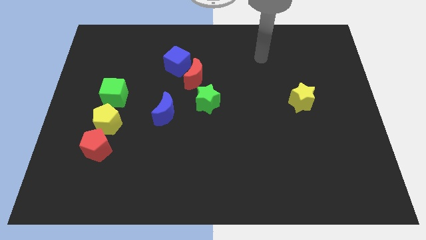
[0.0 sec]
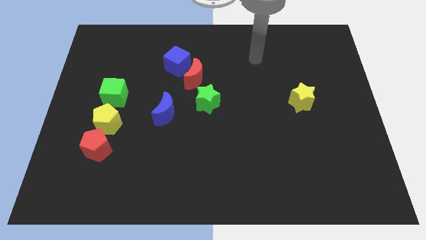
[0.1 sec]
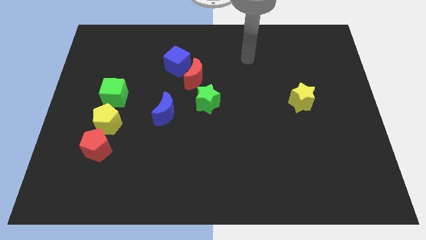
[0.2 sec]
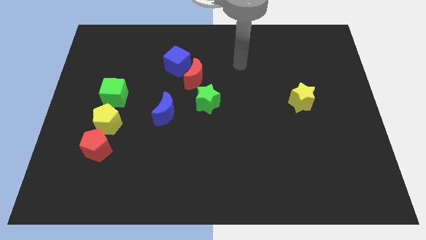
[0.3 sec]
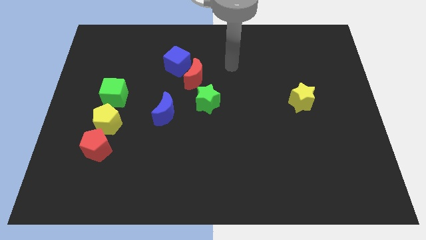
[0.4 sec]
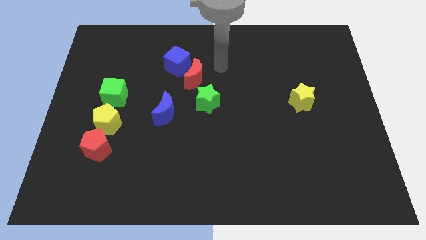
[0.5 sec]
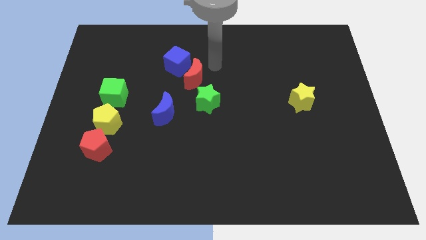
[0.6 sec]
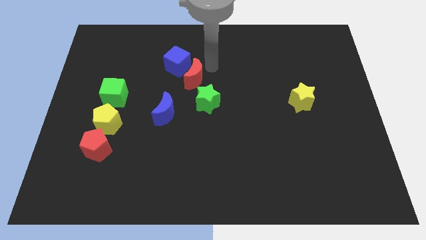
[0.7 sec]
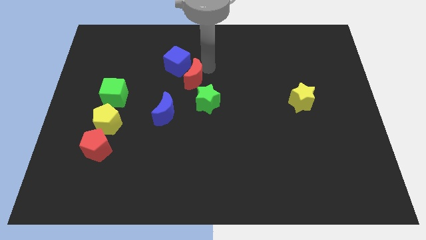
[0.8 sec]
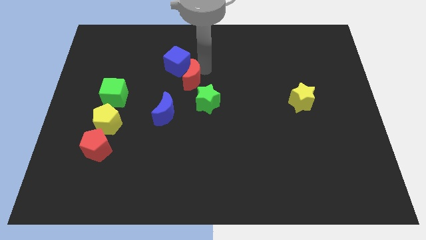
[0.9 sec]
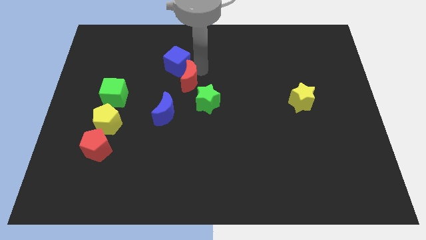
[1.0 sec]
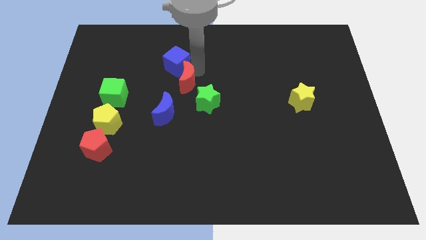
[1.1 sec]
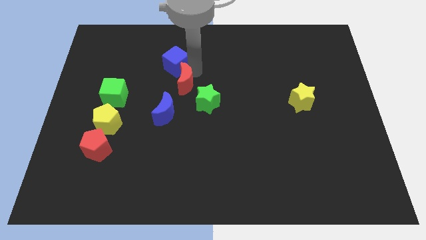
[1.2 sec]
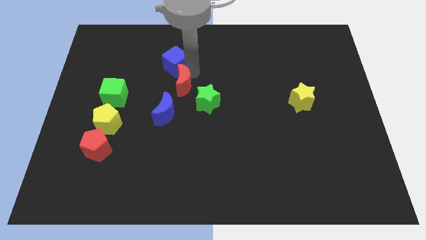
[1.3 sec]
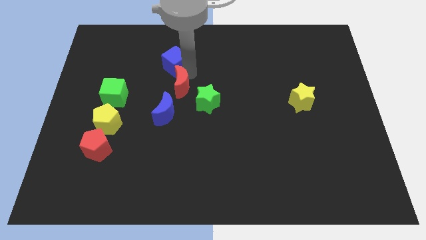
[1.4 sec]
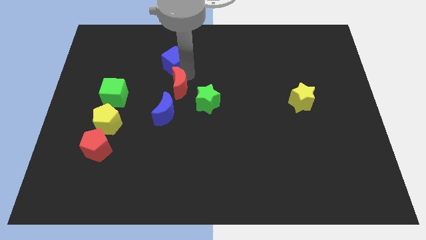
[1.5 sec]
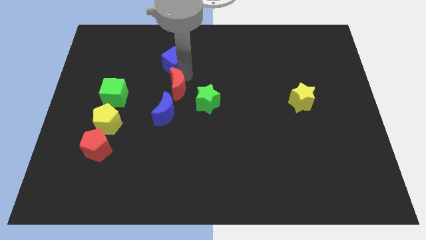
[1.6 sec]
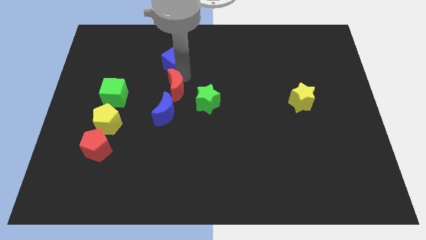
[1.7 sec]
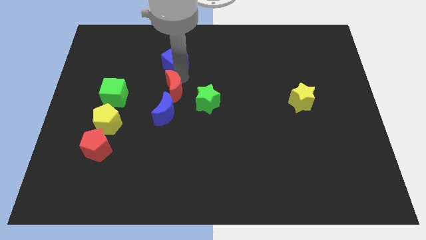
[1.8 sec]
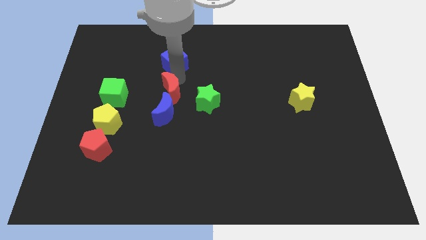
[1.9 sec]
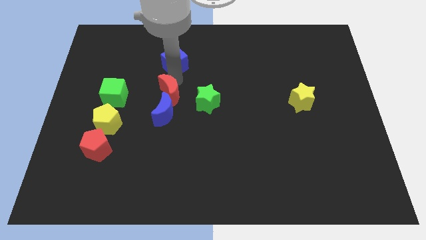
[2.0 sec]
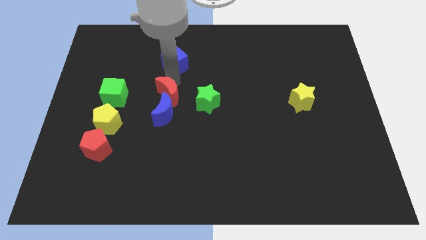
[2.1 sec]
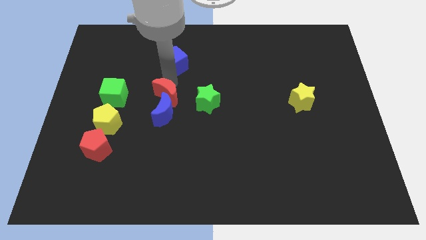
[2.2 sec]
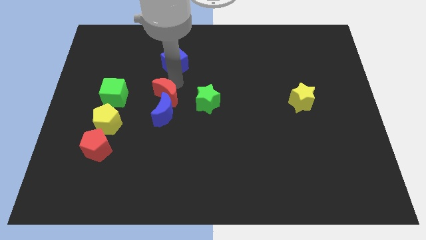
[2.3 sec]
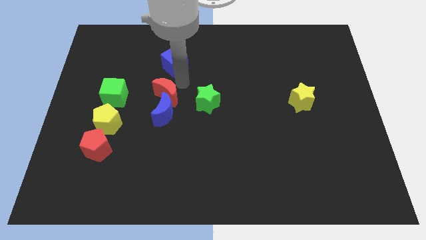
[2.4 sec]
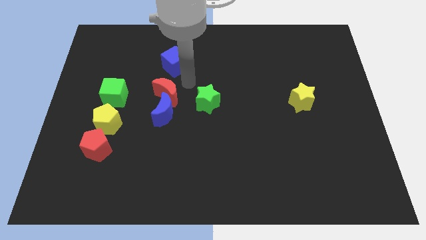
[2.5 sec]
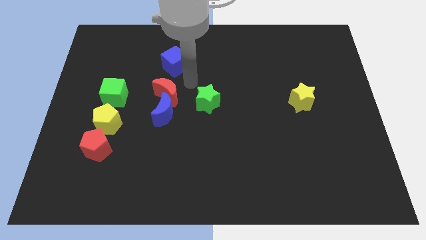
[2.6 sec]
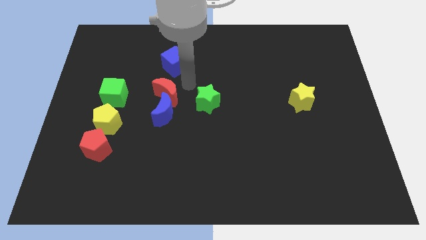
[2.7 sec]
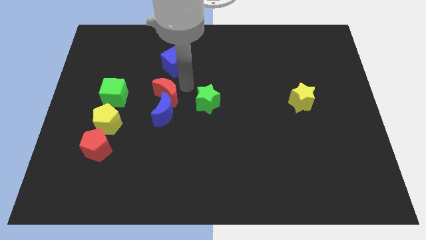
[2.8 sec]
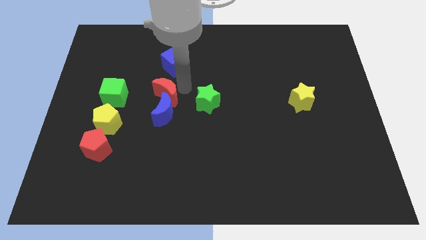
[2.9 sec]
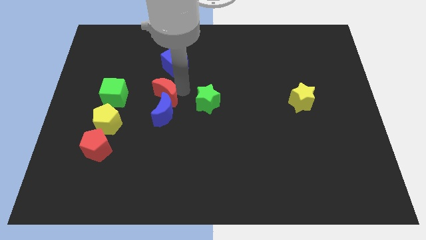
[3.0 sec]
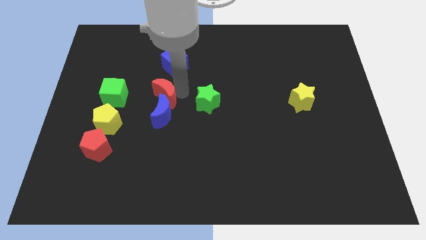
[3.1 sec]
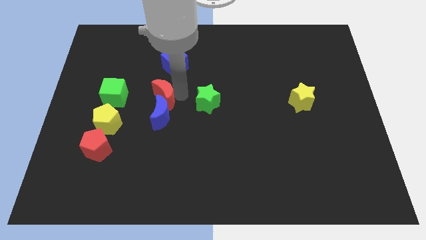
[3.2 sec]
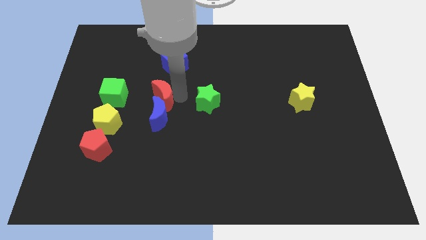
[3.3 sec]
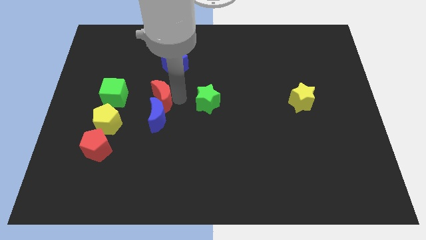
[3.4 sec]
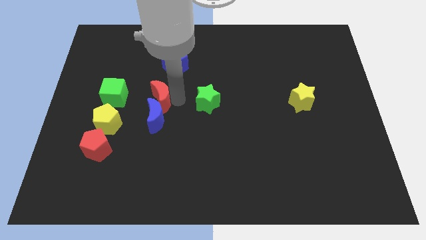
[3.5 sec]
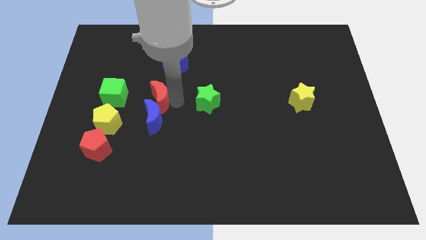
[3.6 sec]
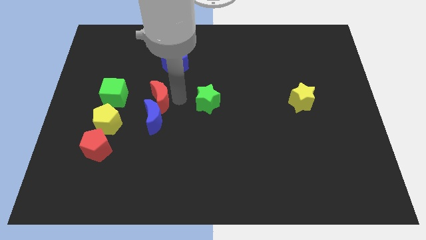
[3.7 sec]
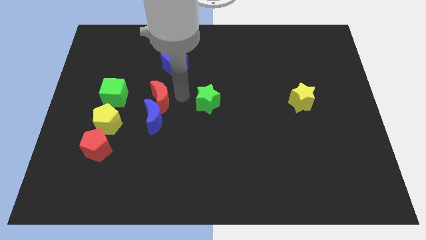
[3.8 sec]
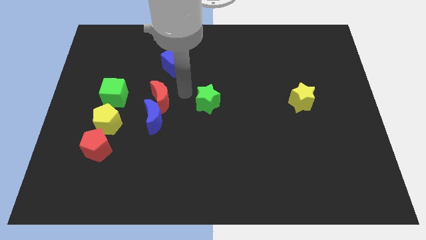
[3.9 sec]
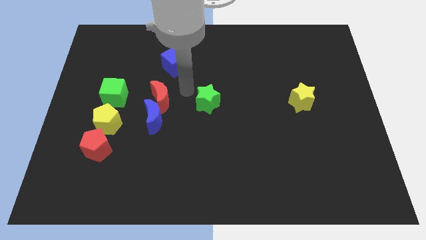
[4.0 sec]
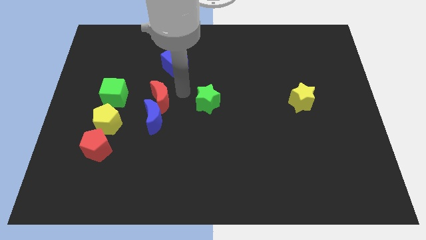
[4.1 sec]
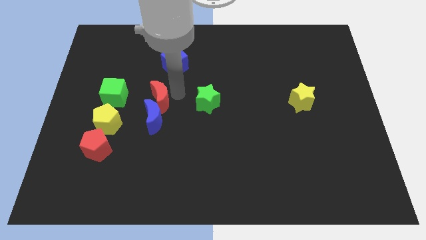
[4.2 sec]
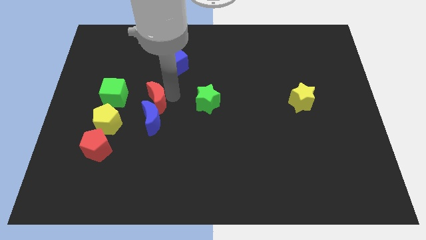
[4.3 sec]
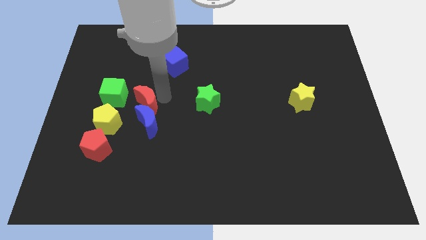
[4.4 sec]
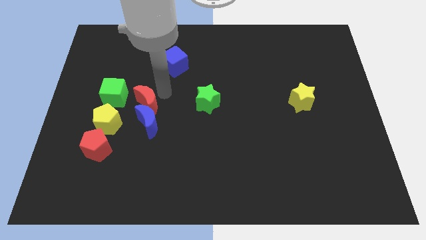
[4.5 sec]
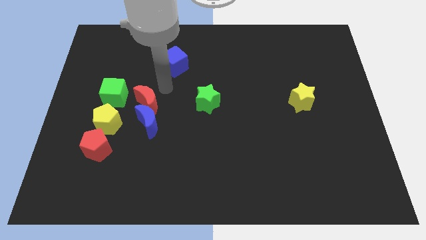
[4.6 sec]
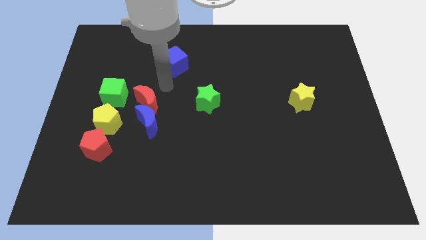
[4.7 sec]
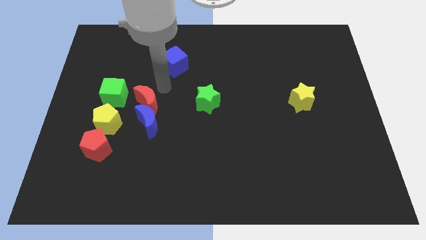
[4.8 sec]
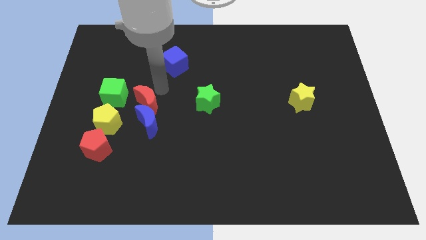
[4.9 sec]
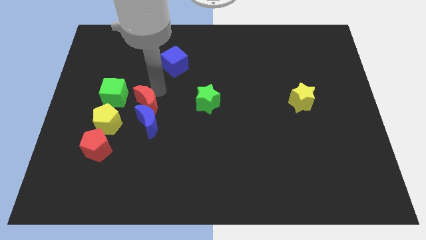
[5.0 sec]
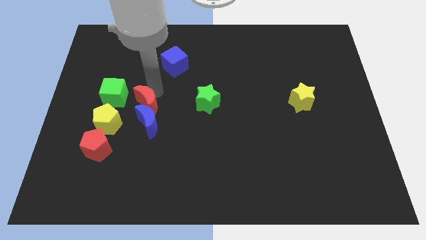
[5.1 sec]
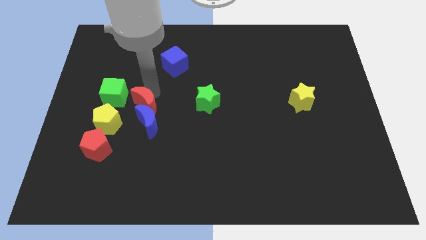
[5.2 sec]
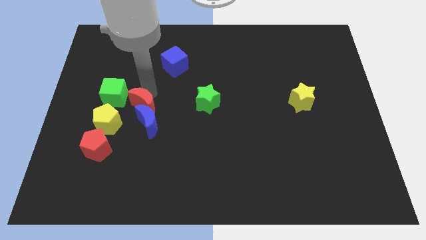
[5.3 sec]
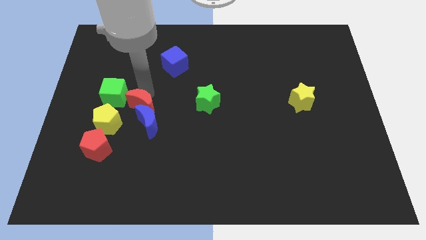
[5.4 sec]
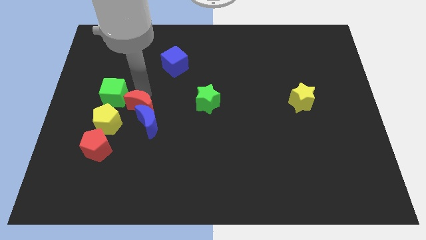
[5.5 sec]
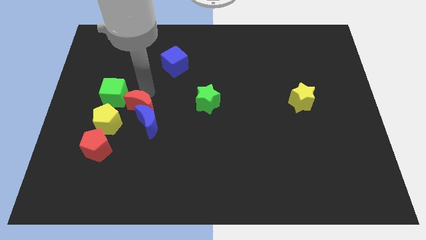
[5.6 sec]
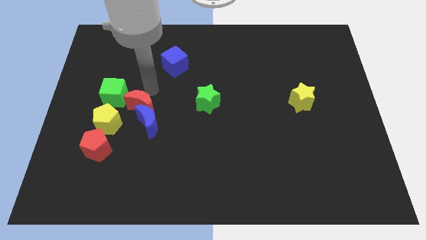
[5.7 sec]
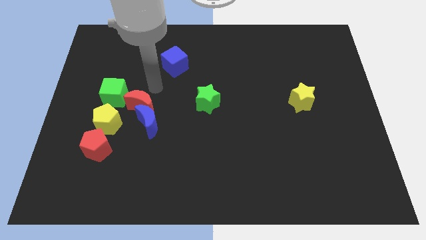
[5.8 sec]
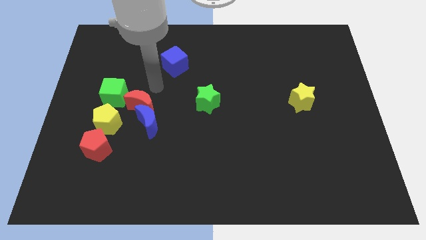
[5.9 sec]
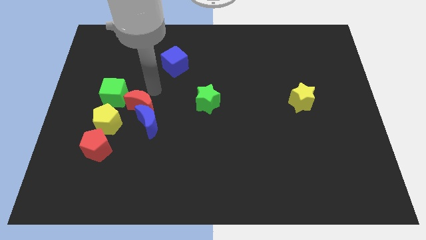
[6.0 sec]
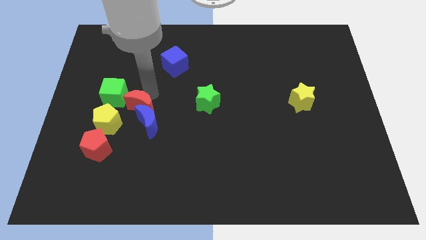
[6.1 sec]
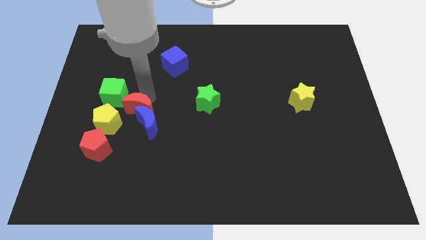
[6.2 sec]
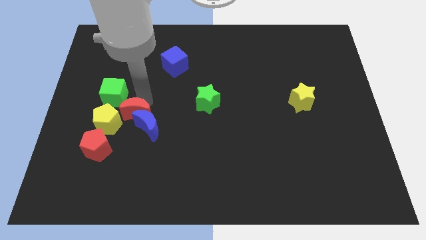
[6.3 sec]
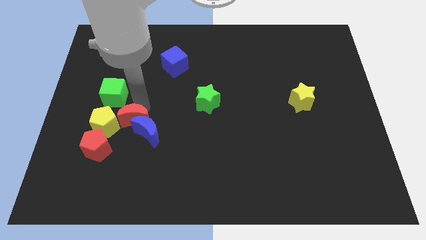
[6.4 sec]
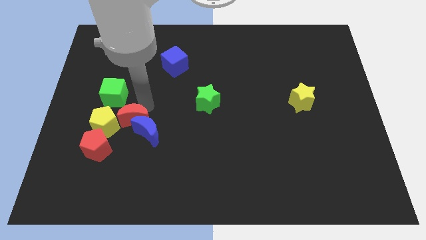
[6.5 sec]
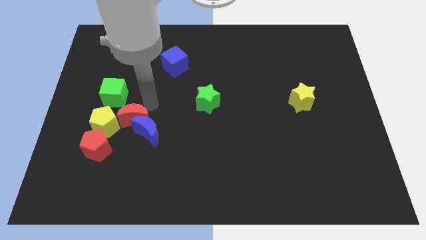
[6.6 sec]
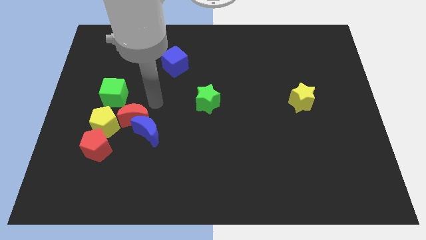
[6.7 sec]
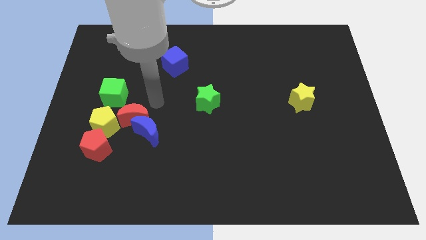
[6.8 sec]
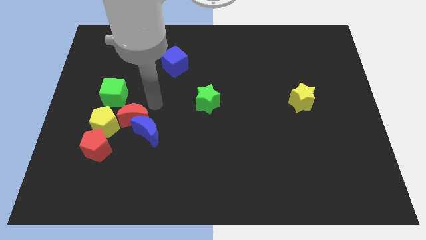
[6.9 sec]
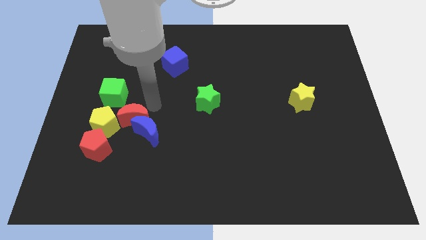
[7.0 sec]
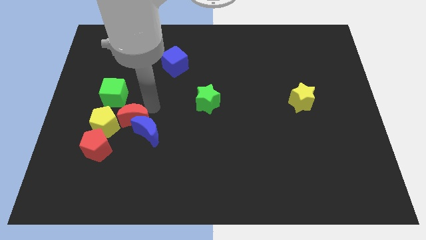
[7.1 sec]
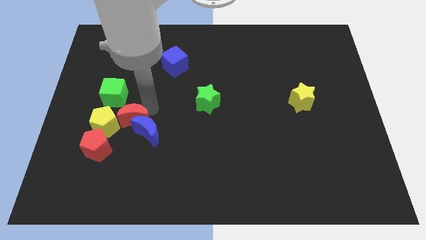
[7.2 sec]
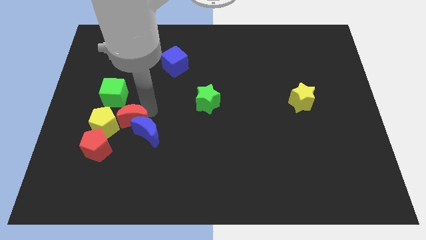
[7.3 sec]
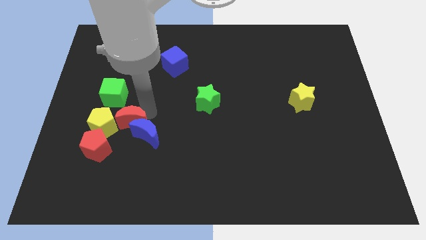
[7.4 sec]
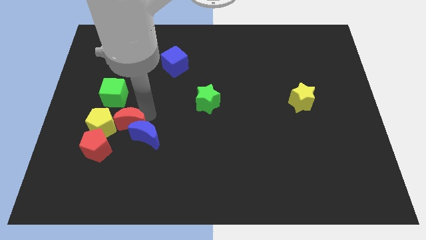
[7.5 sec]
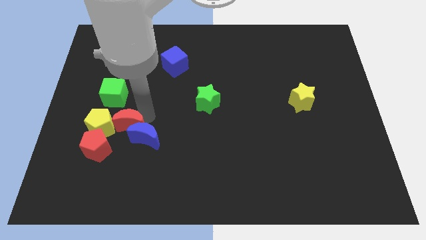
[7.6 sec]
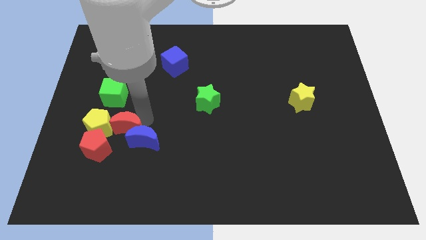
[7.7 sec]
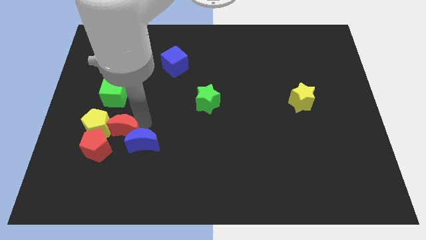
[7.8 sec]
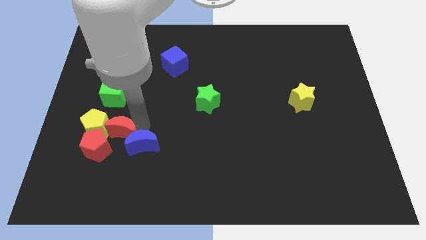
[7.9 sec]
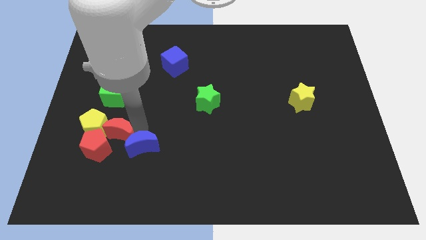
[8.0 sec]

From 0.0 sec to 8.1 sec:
push the red moon close to the red pentagon
